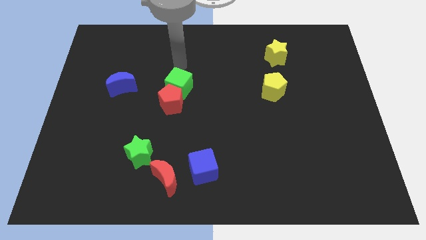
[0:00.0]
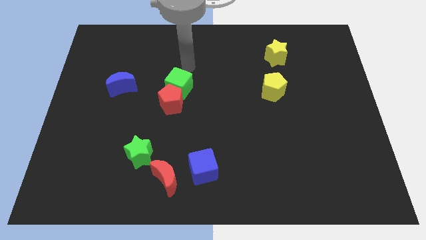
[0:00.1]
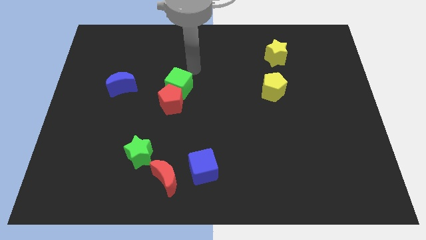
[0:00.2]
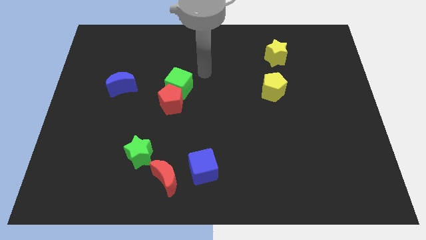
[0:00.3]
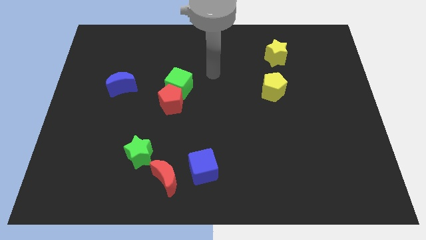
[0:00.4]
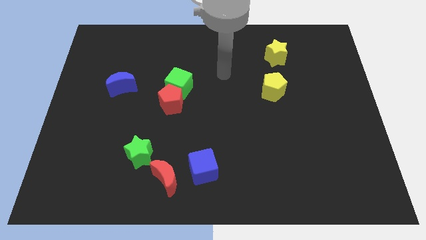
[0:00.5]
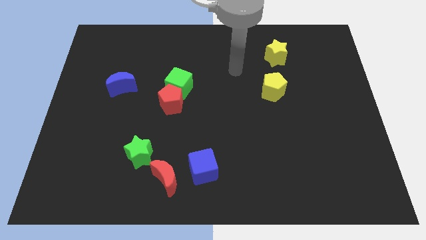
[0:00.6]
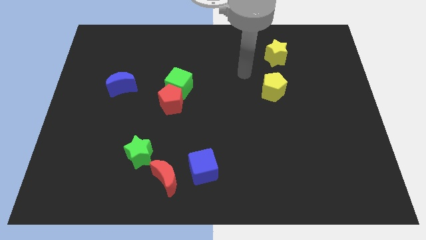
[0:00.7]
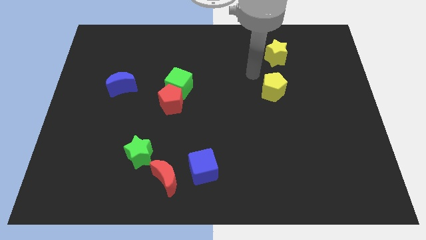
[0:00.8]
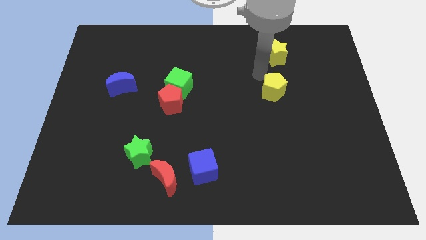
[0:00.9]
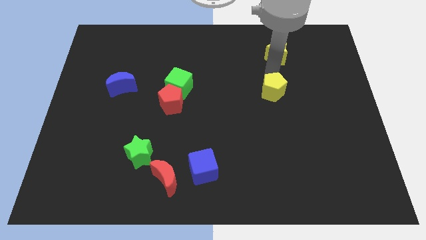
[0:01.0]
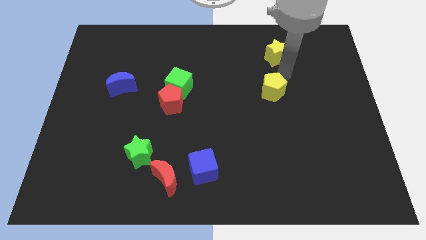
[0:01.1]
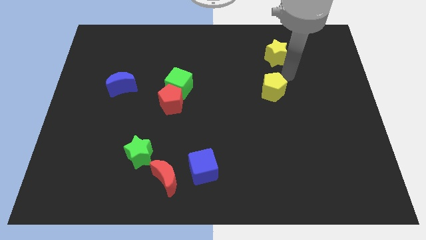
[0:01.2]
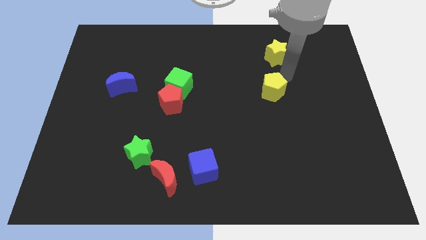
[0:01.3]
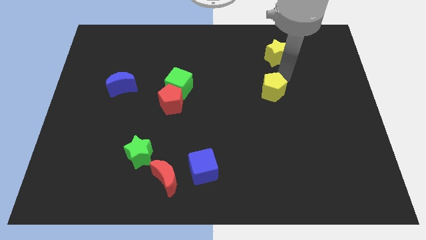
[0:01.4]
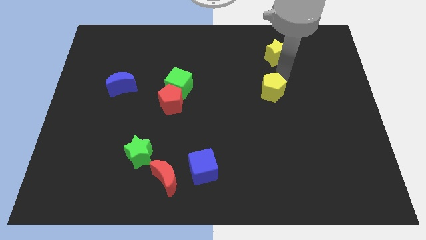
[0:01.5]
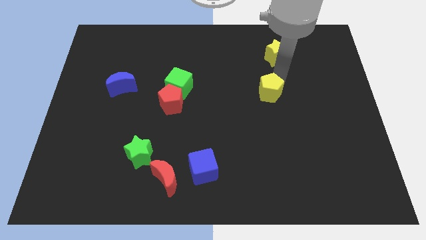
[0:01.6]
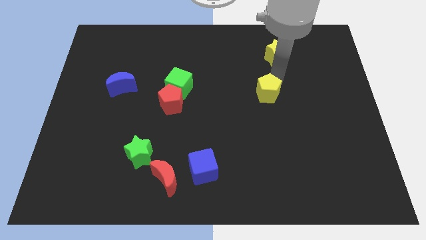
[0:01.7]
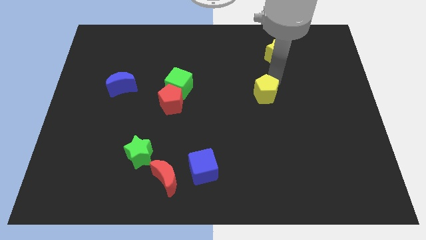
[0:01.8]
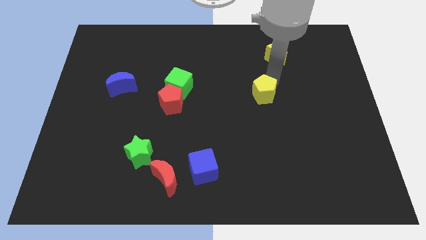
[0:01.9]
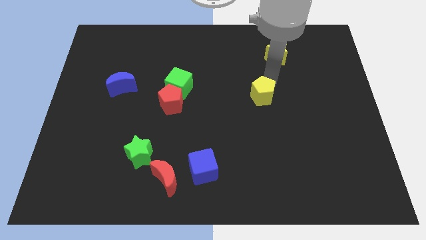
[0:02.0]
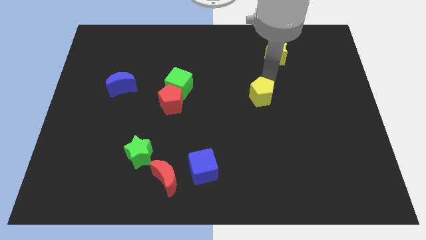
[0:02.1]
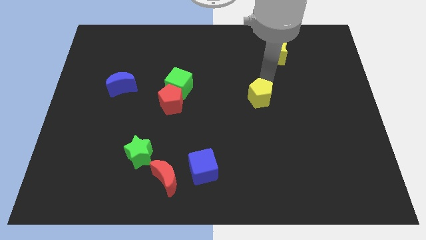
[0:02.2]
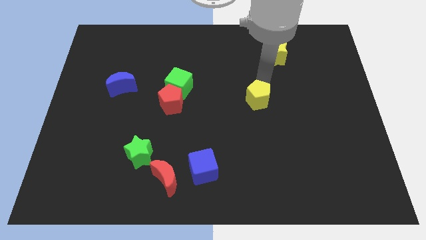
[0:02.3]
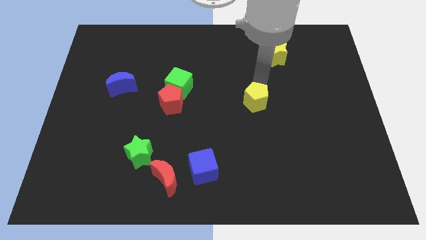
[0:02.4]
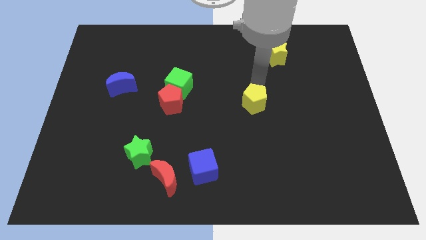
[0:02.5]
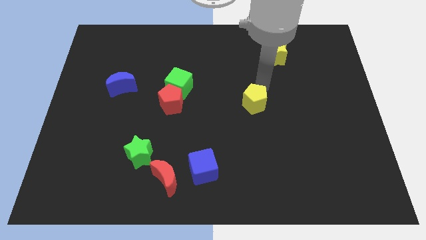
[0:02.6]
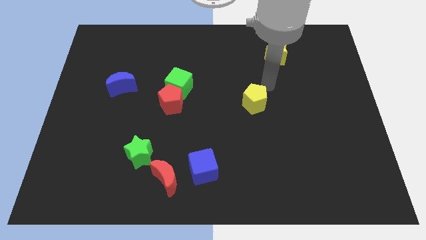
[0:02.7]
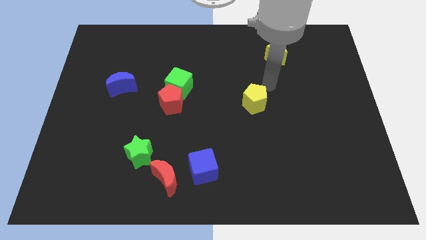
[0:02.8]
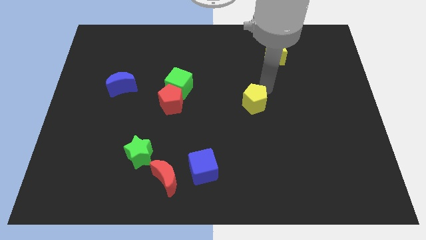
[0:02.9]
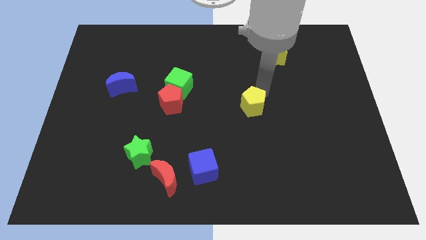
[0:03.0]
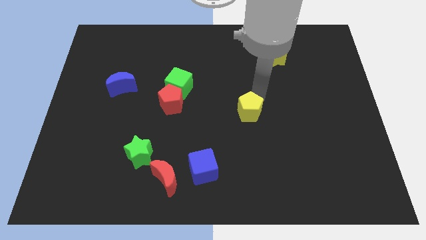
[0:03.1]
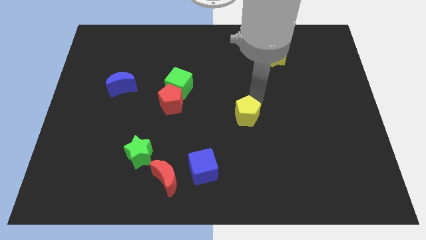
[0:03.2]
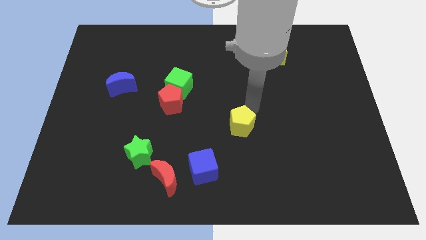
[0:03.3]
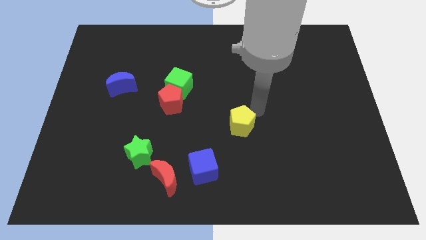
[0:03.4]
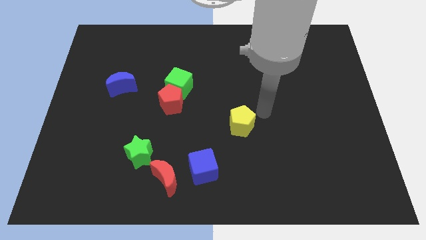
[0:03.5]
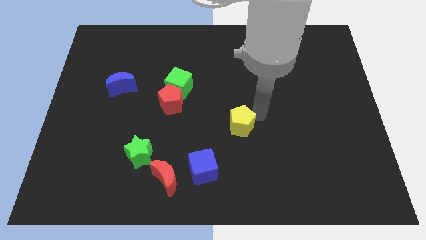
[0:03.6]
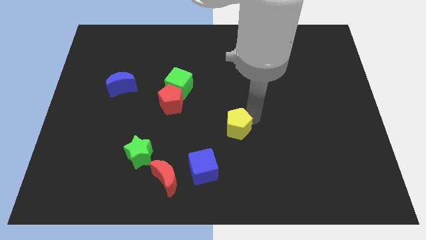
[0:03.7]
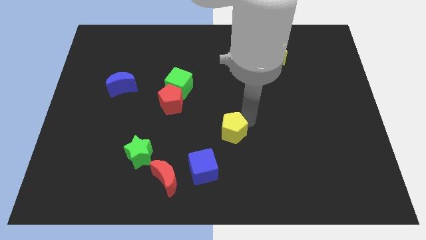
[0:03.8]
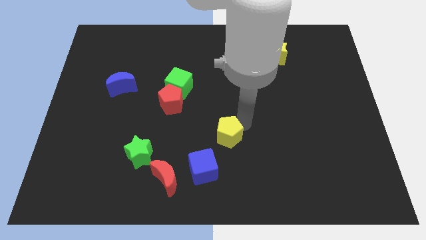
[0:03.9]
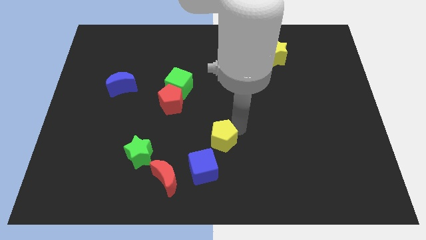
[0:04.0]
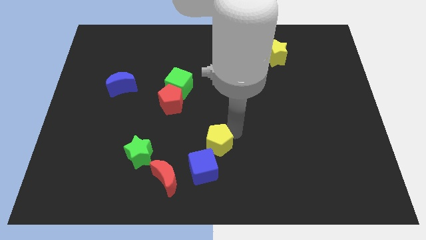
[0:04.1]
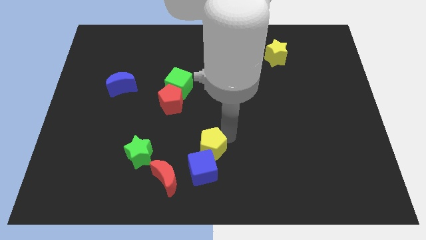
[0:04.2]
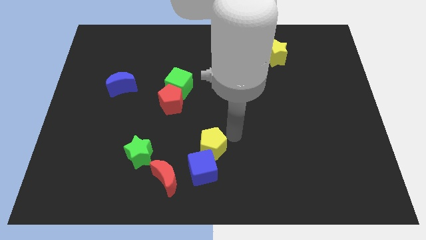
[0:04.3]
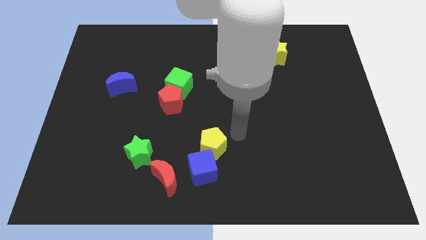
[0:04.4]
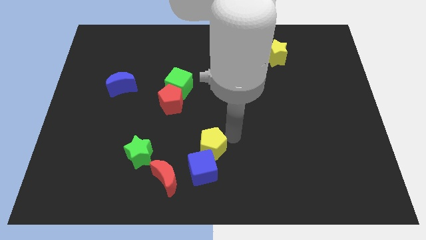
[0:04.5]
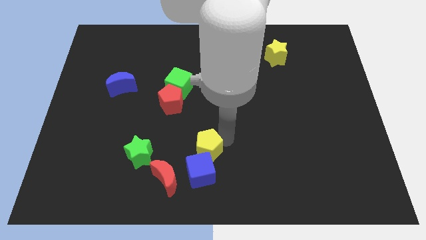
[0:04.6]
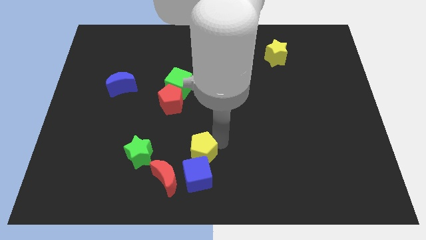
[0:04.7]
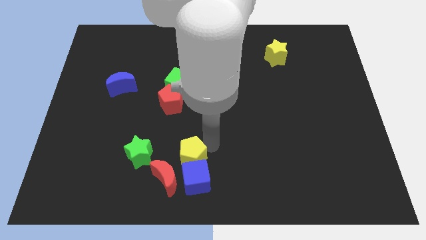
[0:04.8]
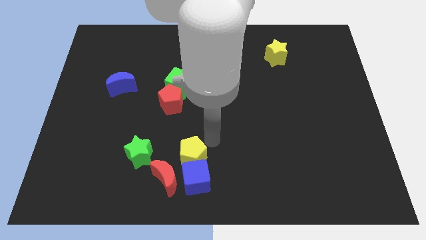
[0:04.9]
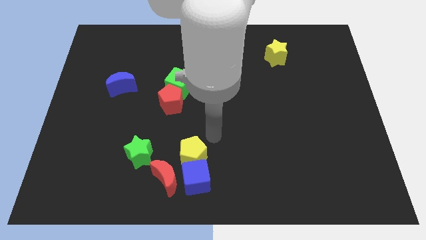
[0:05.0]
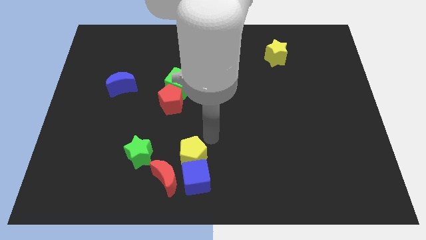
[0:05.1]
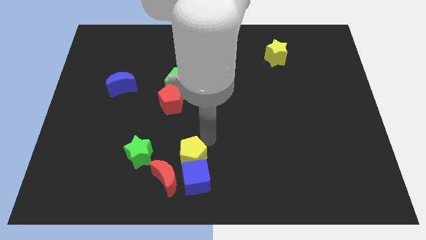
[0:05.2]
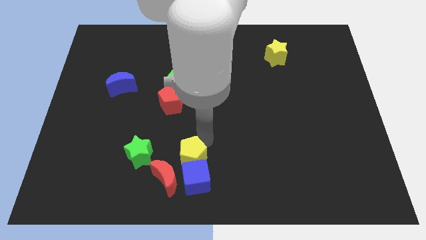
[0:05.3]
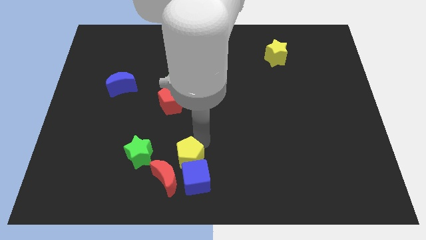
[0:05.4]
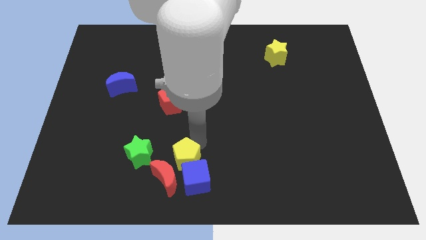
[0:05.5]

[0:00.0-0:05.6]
put the yellow pentagon to the red moon
